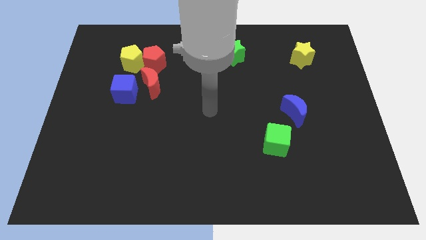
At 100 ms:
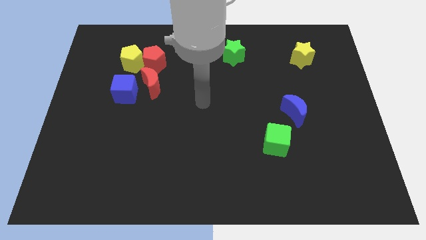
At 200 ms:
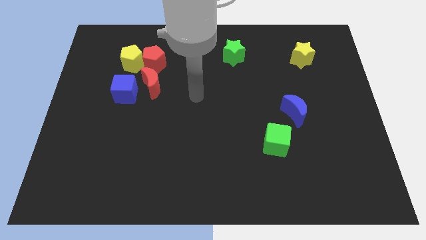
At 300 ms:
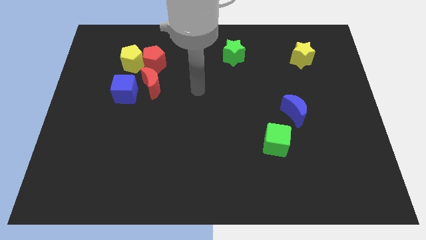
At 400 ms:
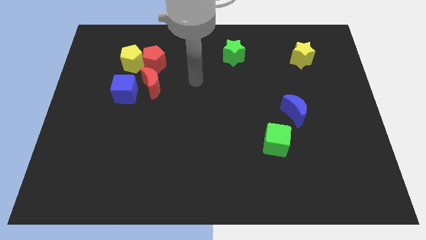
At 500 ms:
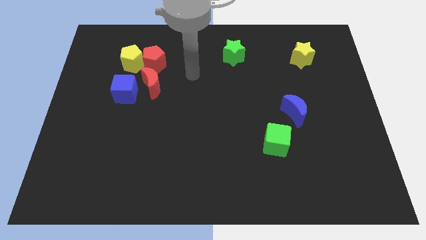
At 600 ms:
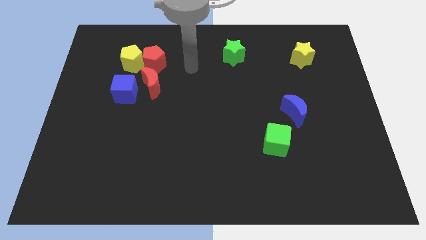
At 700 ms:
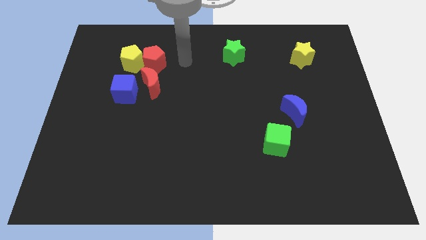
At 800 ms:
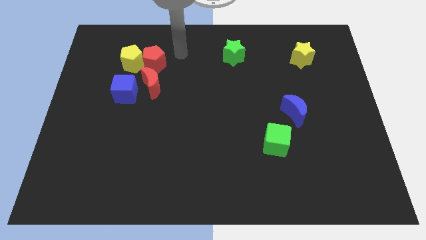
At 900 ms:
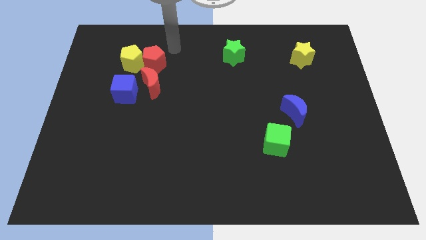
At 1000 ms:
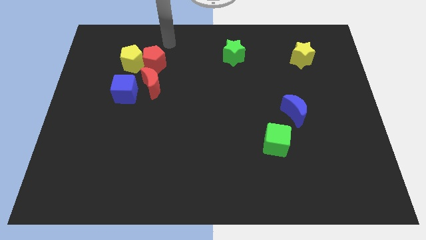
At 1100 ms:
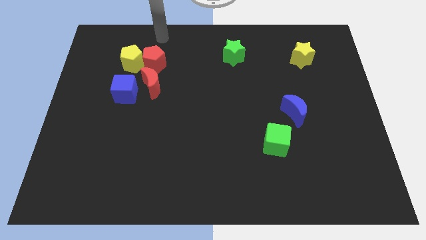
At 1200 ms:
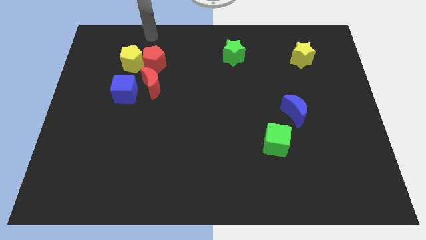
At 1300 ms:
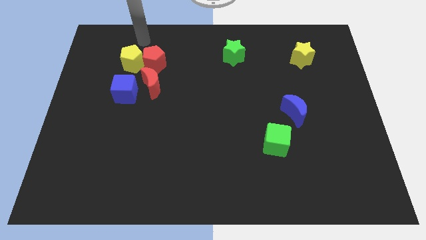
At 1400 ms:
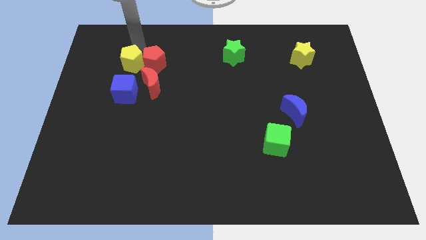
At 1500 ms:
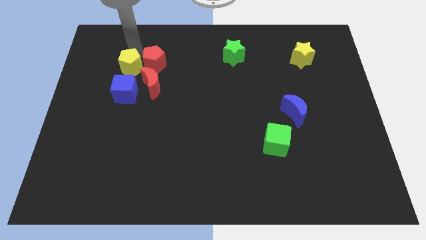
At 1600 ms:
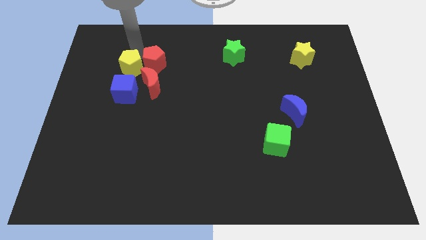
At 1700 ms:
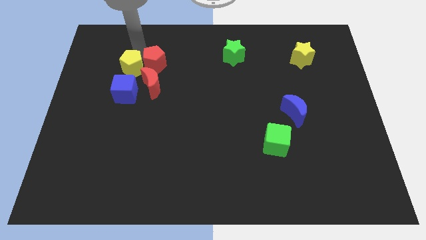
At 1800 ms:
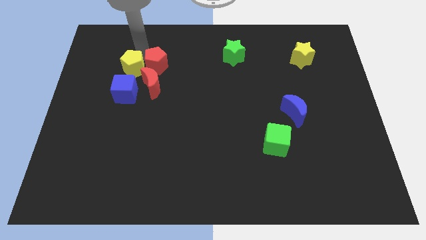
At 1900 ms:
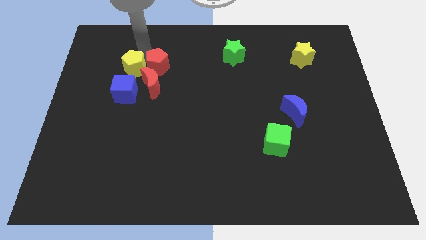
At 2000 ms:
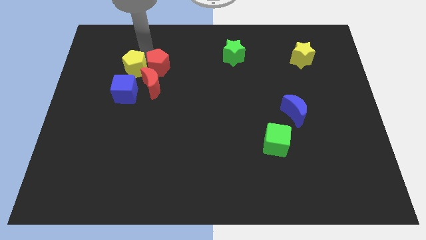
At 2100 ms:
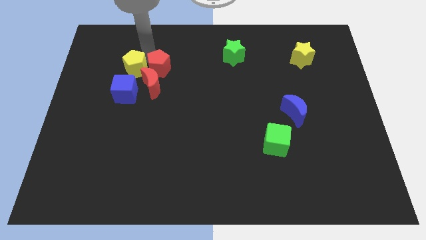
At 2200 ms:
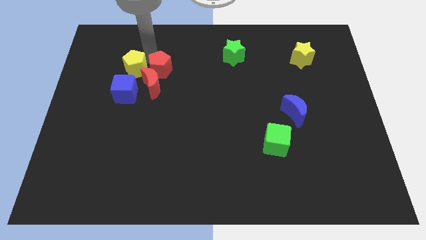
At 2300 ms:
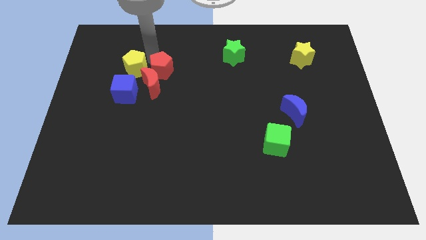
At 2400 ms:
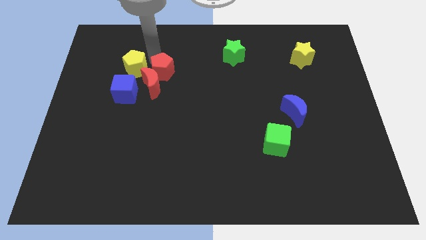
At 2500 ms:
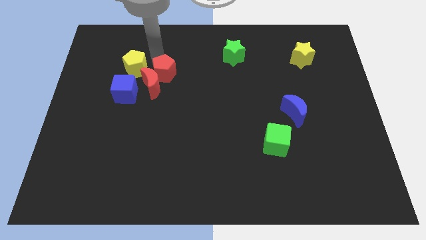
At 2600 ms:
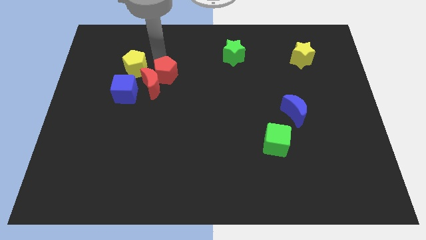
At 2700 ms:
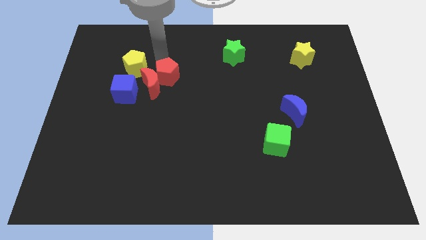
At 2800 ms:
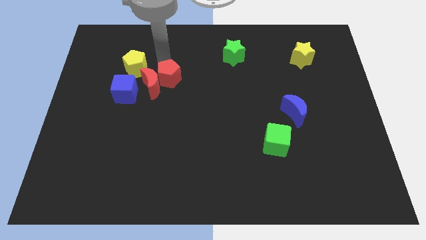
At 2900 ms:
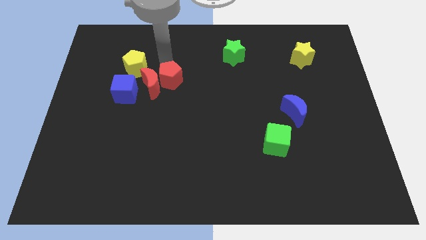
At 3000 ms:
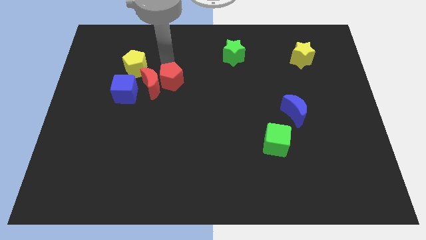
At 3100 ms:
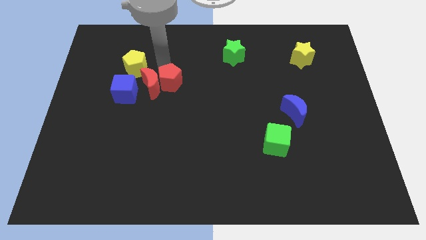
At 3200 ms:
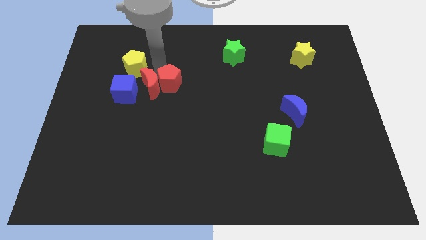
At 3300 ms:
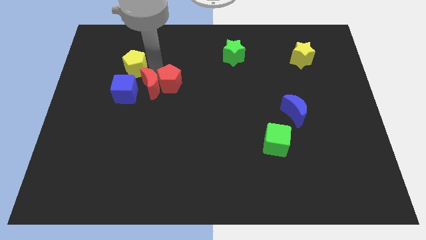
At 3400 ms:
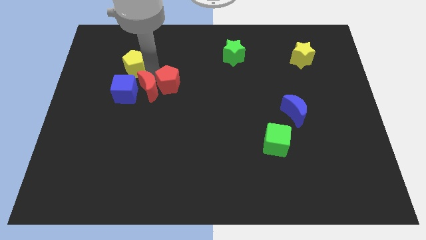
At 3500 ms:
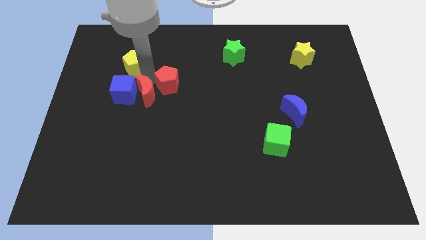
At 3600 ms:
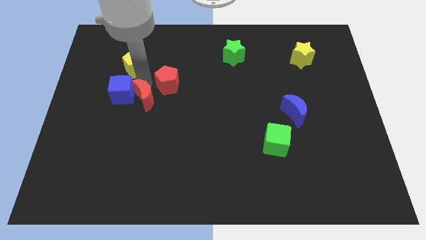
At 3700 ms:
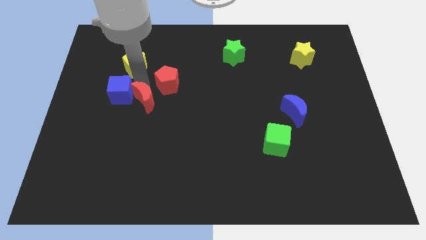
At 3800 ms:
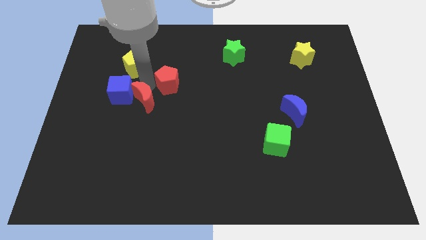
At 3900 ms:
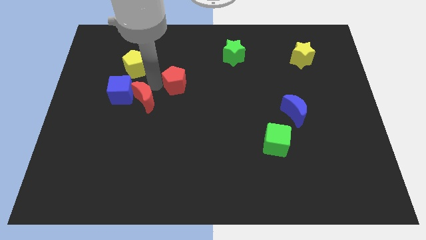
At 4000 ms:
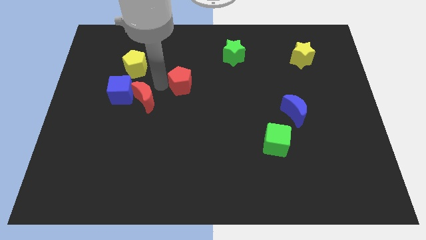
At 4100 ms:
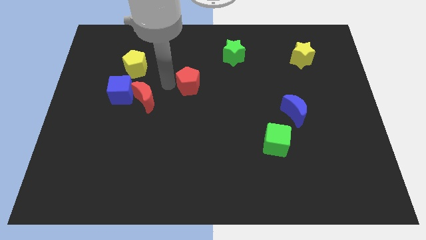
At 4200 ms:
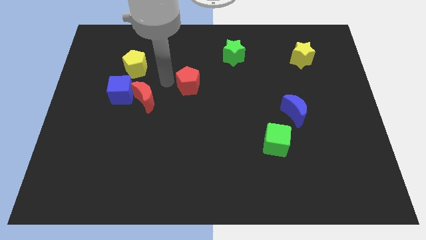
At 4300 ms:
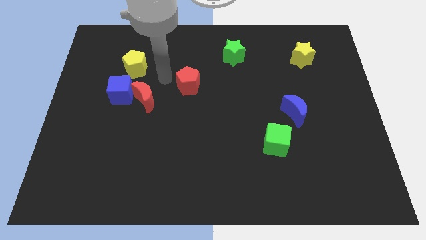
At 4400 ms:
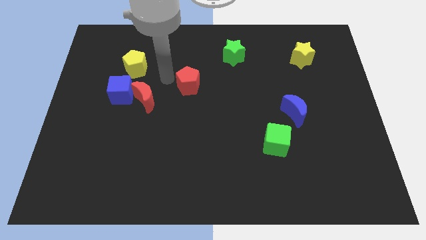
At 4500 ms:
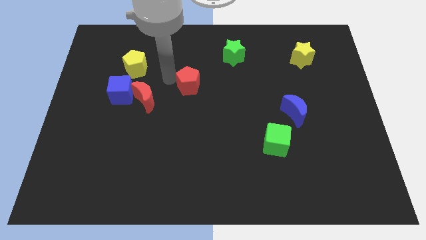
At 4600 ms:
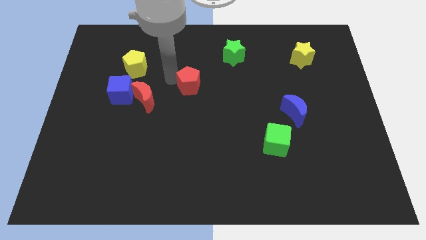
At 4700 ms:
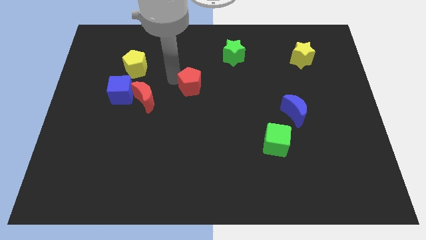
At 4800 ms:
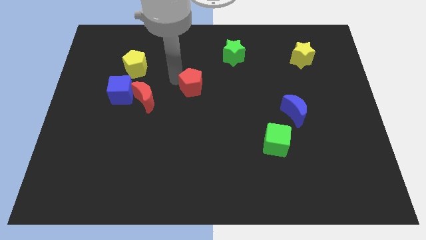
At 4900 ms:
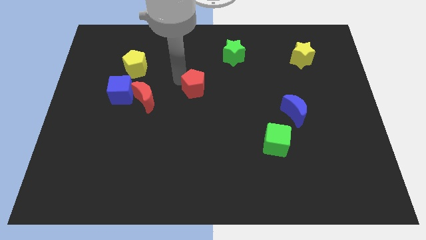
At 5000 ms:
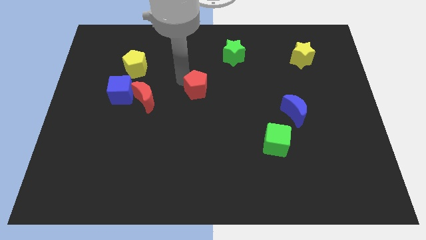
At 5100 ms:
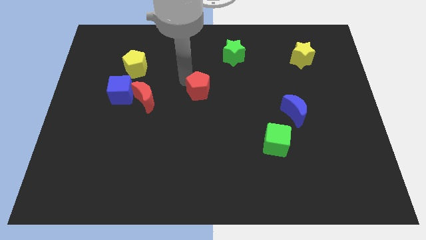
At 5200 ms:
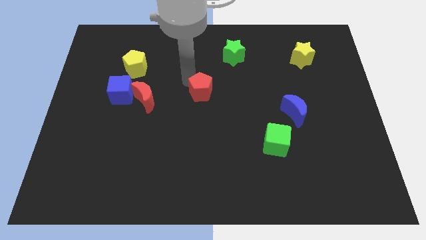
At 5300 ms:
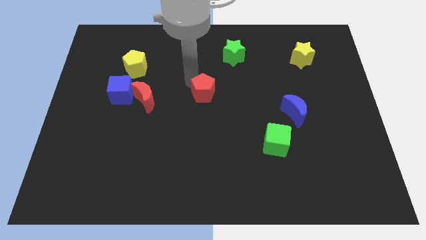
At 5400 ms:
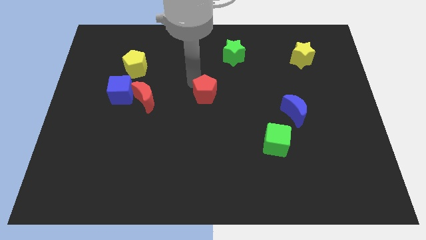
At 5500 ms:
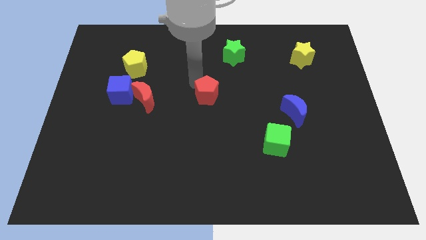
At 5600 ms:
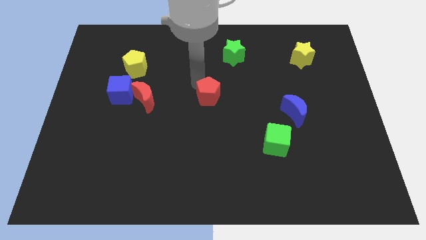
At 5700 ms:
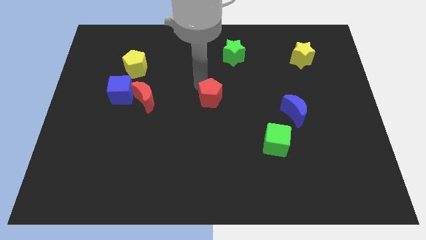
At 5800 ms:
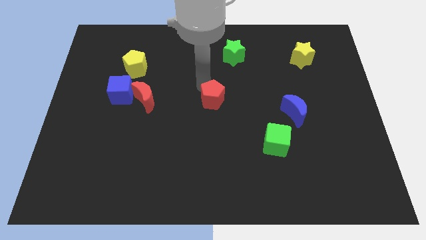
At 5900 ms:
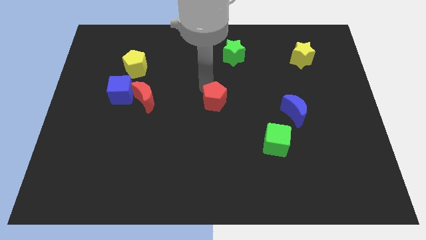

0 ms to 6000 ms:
slide the red pentagon downwards and then to the right

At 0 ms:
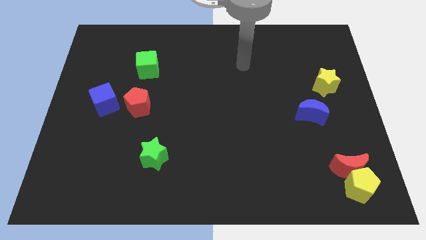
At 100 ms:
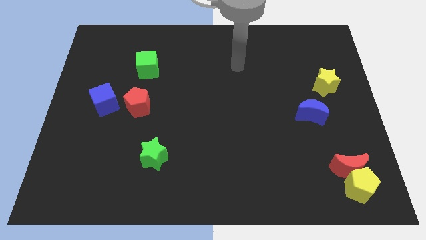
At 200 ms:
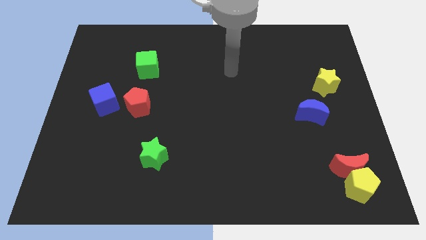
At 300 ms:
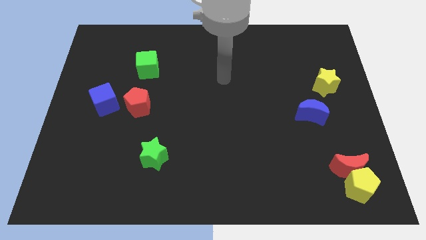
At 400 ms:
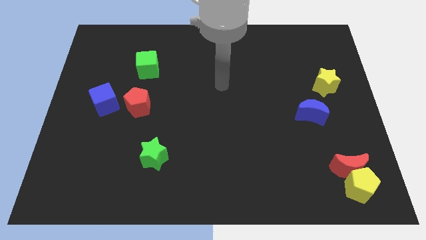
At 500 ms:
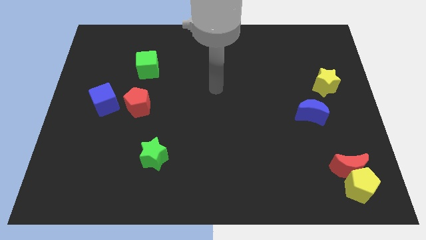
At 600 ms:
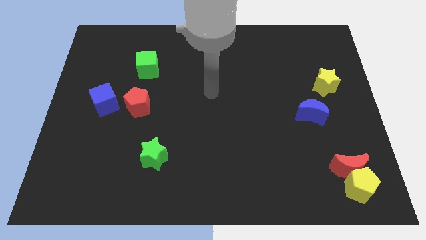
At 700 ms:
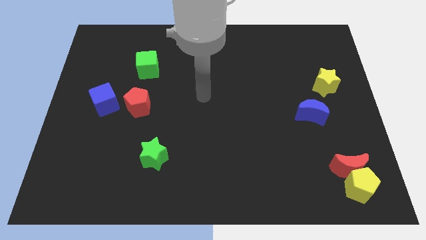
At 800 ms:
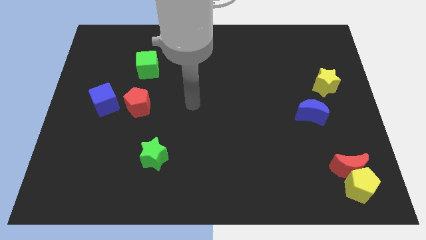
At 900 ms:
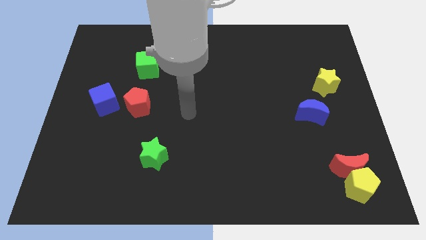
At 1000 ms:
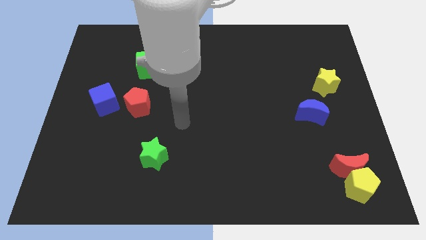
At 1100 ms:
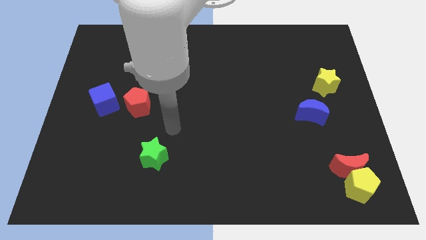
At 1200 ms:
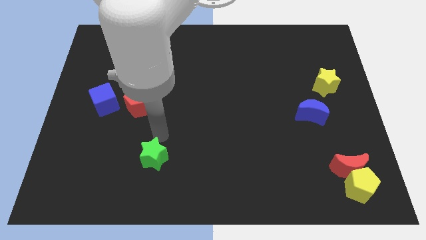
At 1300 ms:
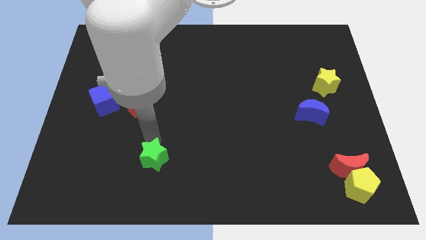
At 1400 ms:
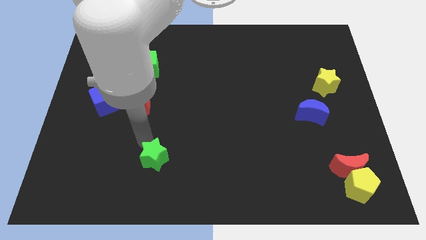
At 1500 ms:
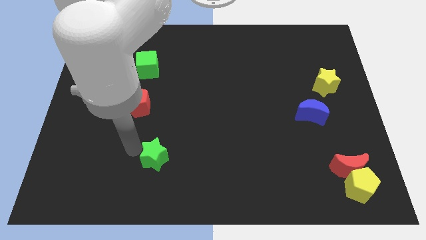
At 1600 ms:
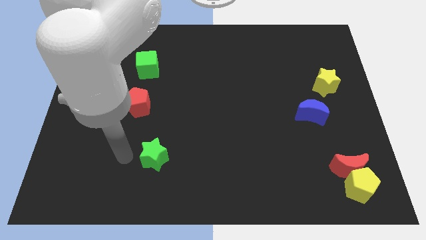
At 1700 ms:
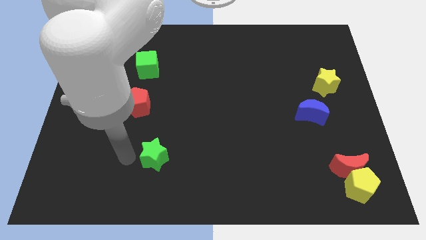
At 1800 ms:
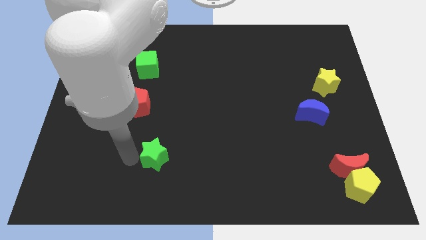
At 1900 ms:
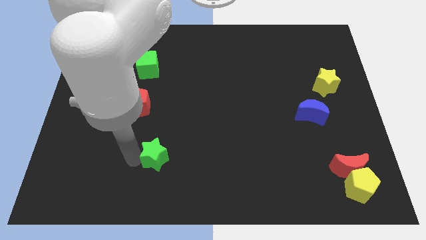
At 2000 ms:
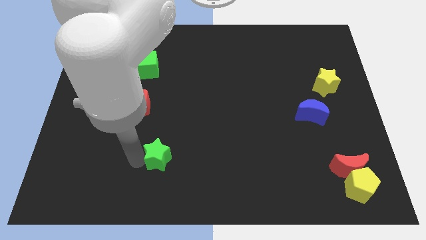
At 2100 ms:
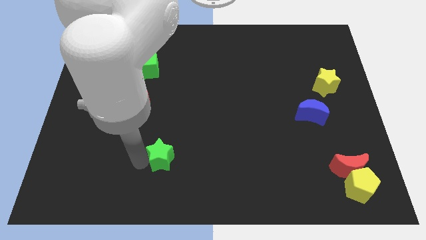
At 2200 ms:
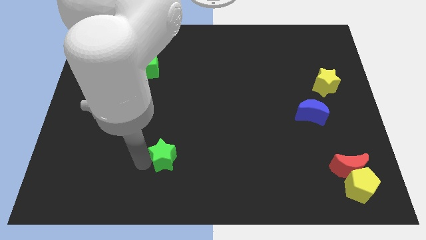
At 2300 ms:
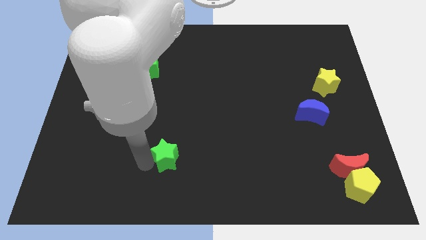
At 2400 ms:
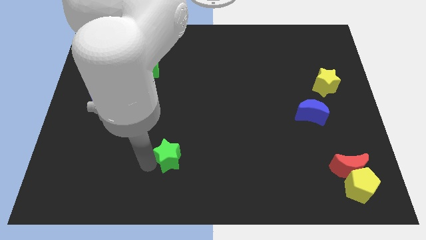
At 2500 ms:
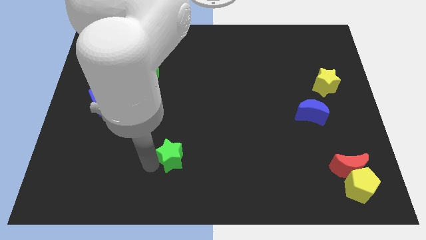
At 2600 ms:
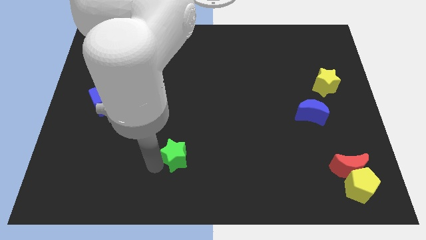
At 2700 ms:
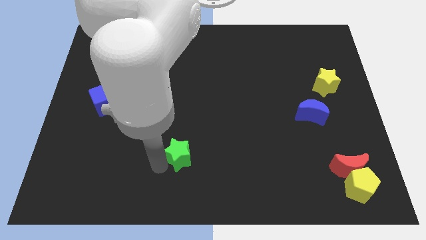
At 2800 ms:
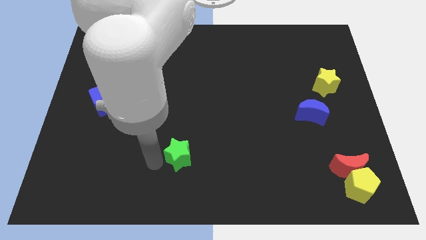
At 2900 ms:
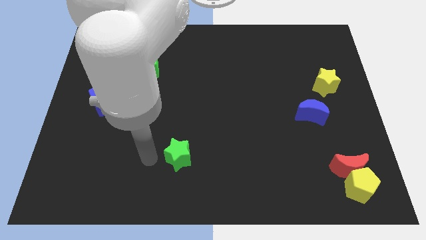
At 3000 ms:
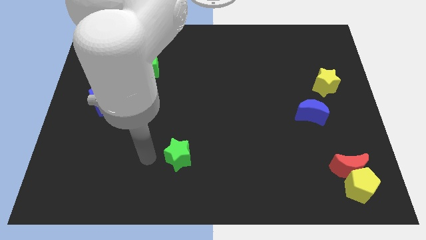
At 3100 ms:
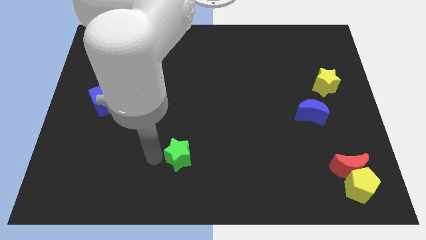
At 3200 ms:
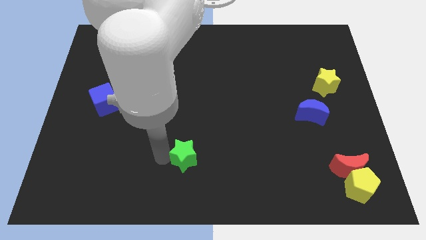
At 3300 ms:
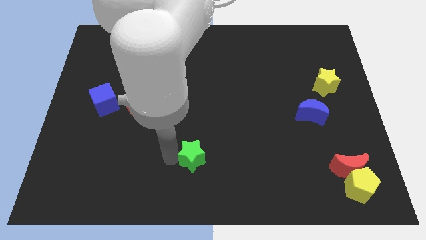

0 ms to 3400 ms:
push the green star somewhat right
